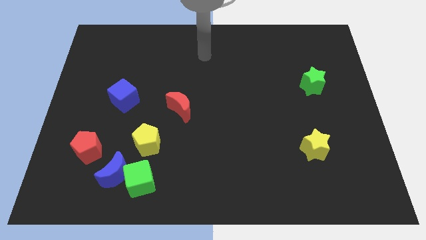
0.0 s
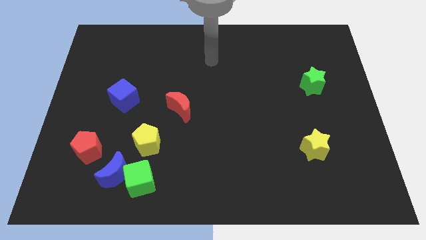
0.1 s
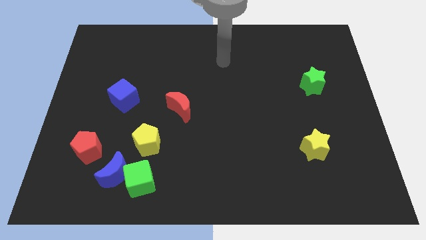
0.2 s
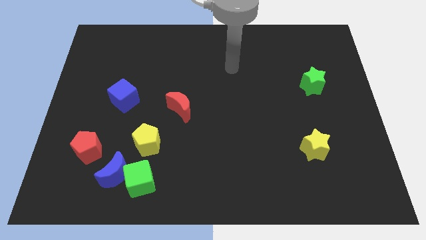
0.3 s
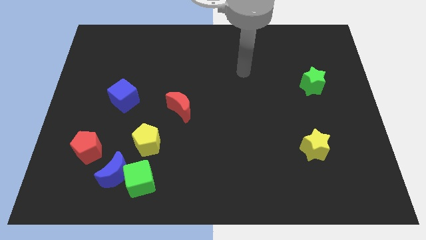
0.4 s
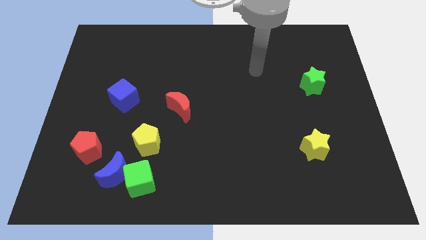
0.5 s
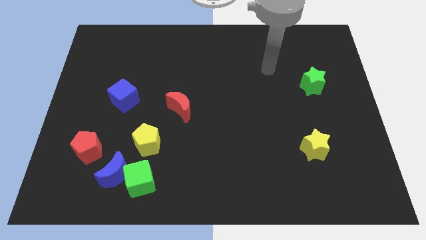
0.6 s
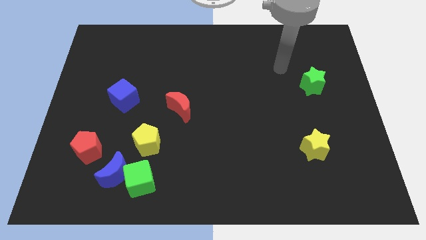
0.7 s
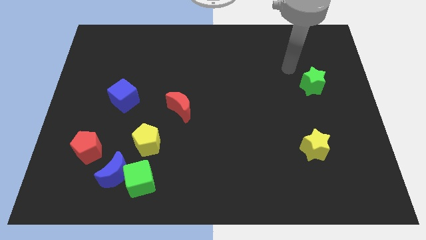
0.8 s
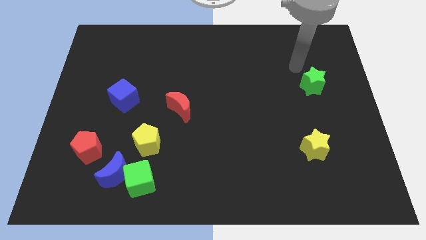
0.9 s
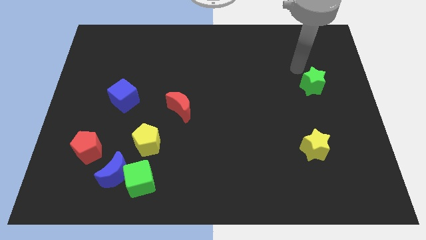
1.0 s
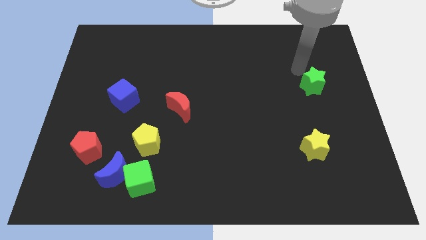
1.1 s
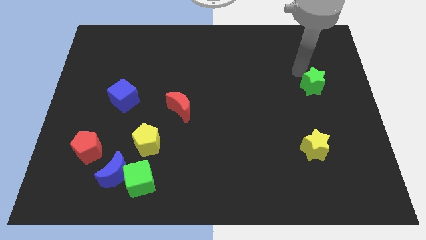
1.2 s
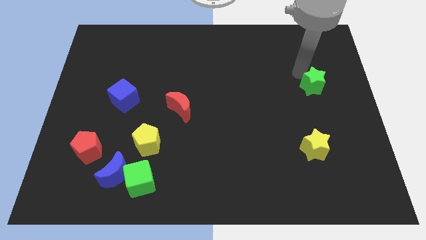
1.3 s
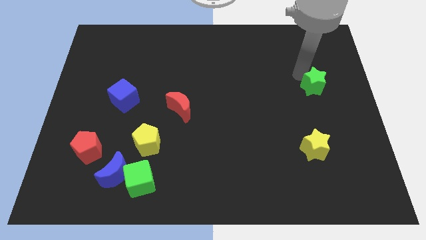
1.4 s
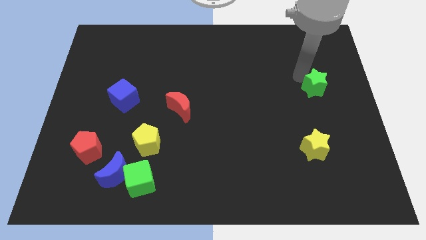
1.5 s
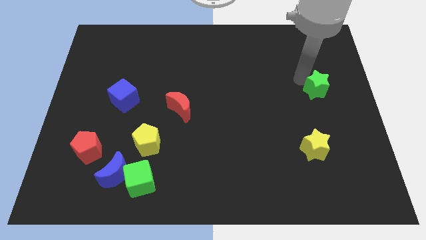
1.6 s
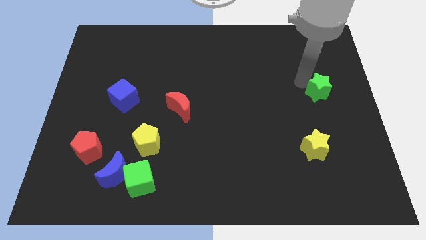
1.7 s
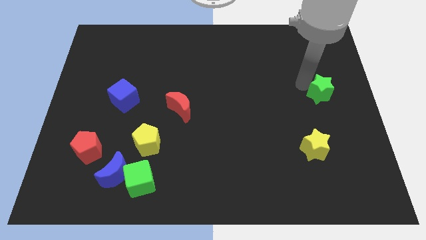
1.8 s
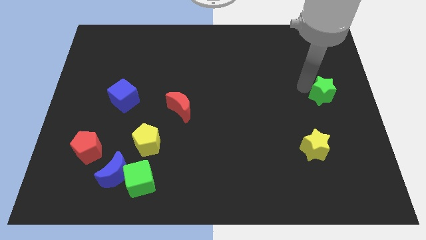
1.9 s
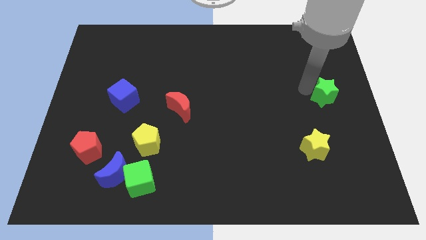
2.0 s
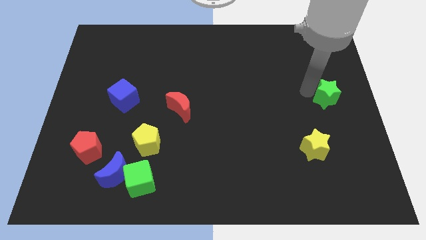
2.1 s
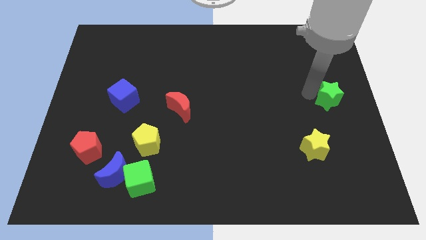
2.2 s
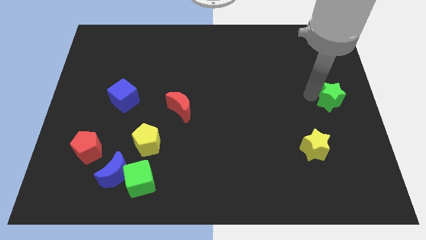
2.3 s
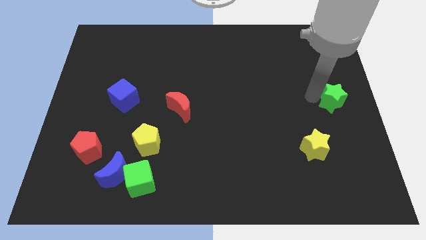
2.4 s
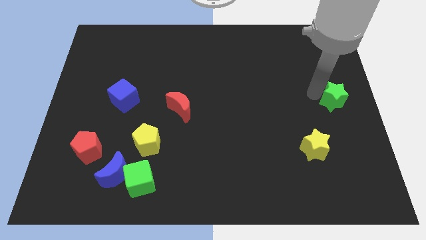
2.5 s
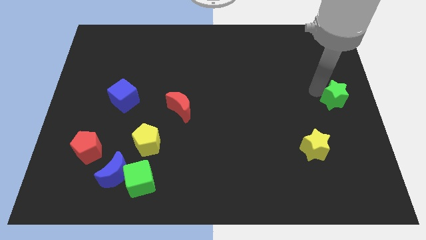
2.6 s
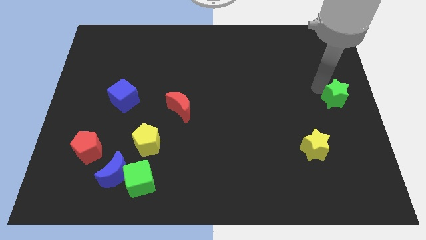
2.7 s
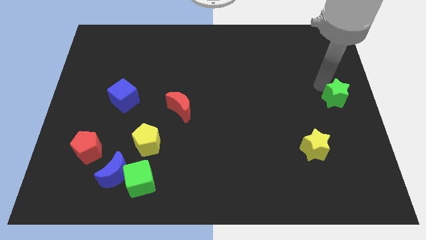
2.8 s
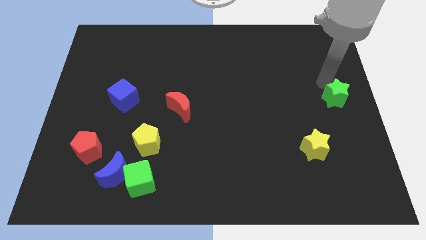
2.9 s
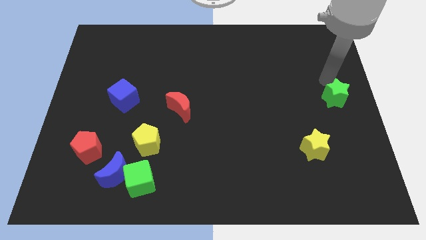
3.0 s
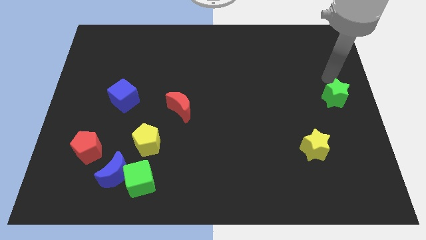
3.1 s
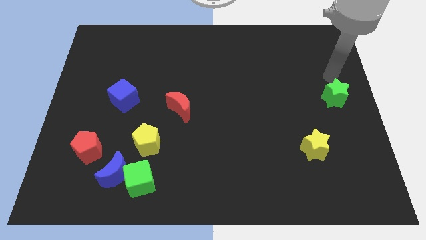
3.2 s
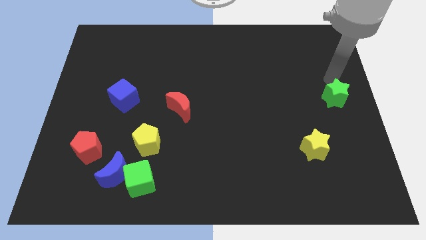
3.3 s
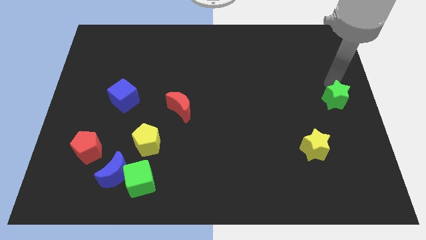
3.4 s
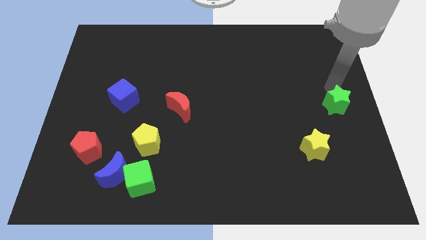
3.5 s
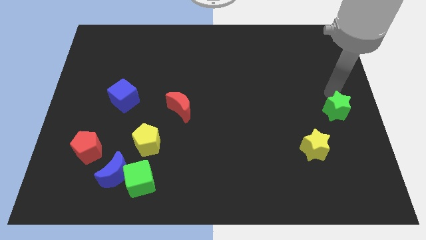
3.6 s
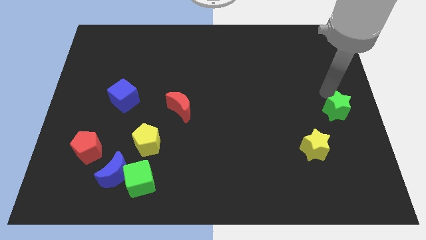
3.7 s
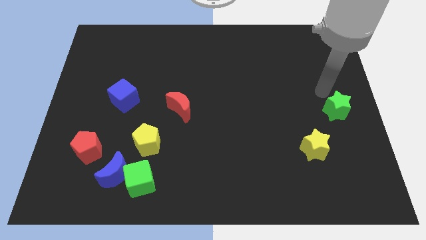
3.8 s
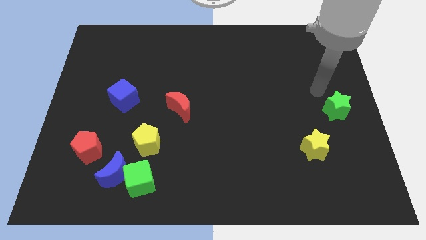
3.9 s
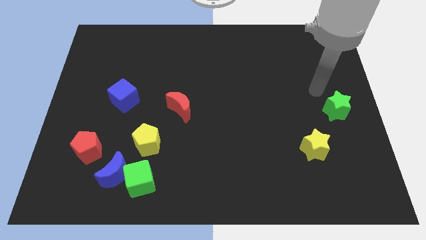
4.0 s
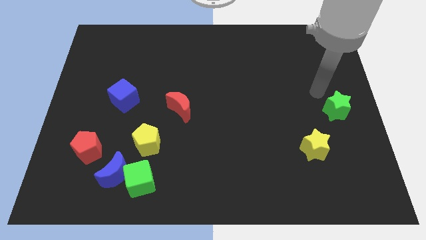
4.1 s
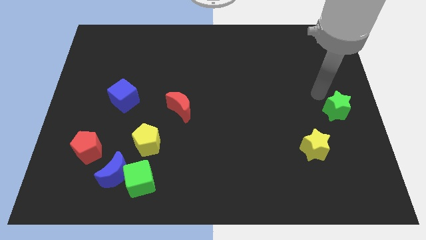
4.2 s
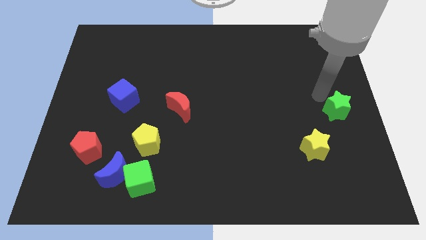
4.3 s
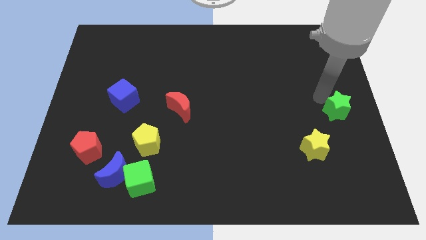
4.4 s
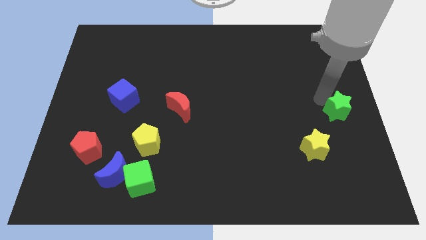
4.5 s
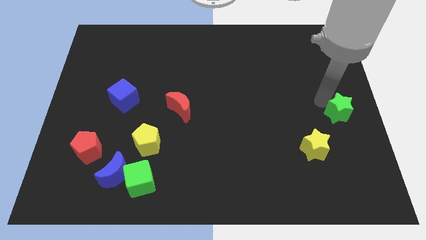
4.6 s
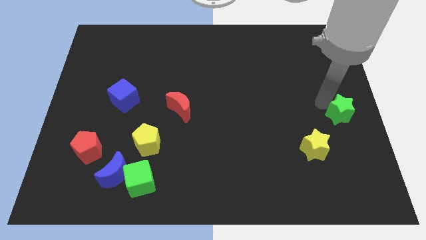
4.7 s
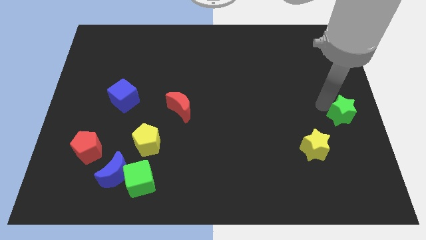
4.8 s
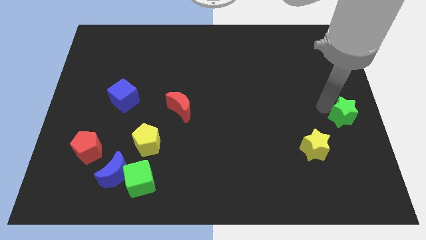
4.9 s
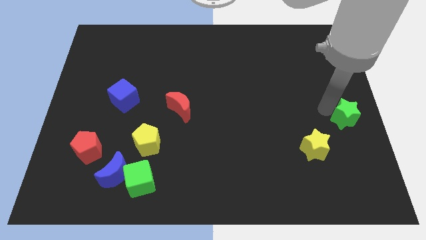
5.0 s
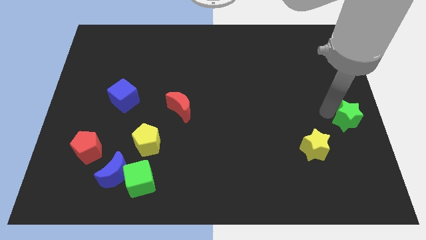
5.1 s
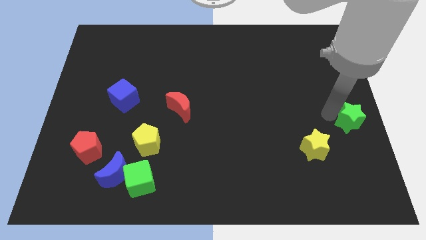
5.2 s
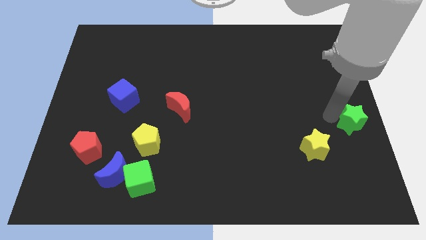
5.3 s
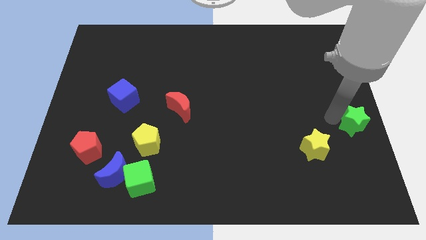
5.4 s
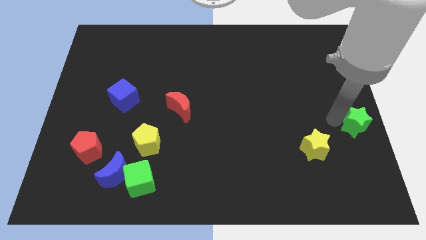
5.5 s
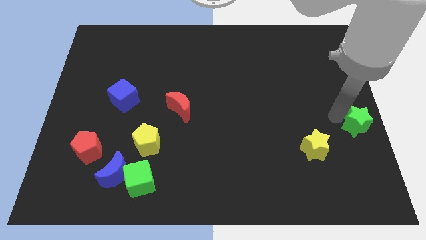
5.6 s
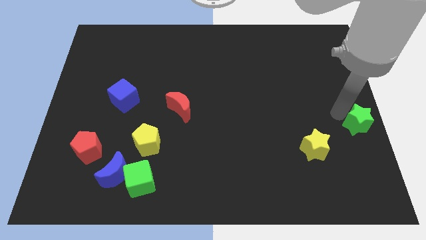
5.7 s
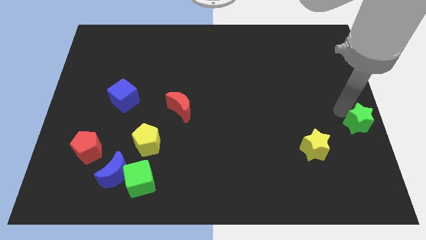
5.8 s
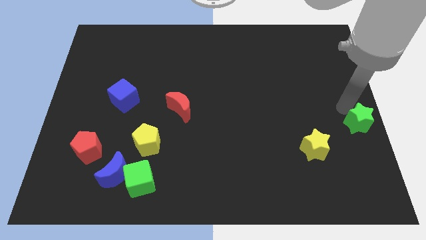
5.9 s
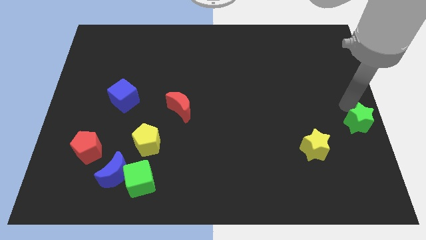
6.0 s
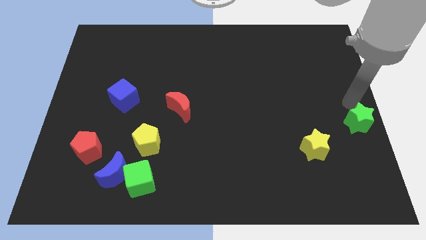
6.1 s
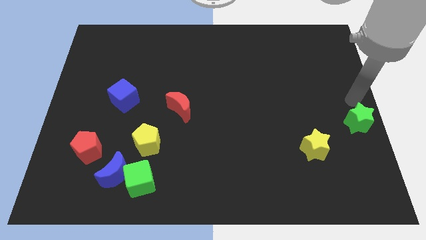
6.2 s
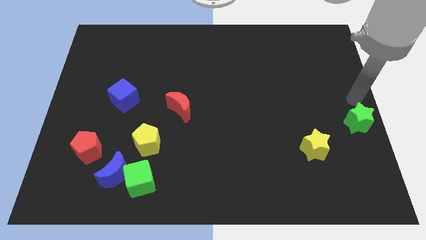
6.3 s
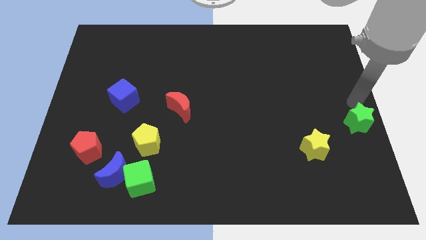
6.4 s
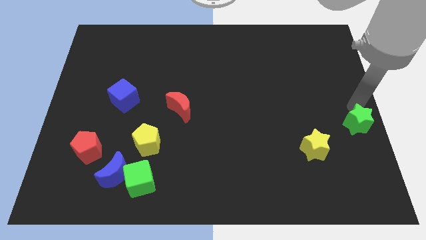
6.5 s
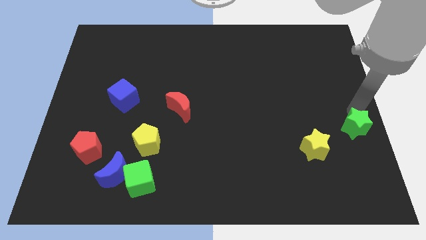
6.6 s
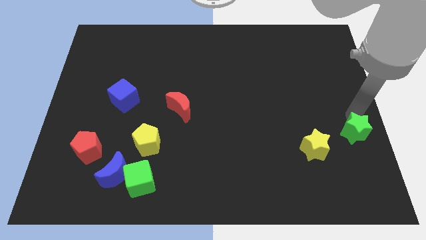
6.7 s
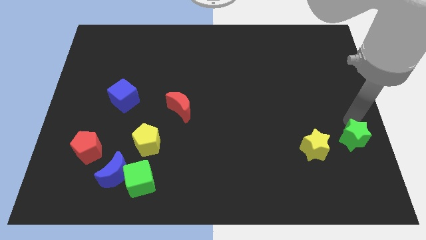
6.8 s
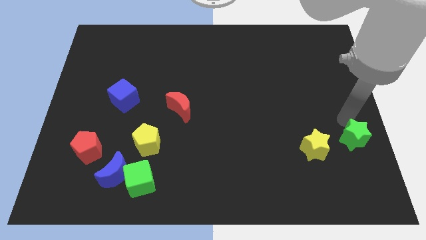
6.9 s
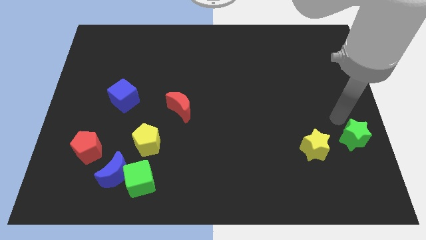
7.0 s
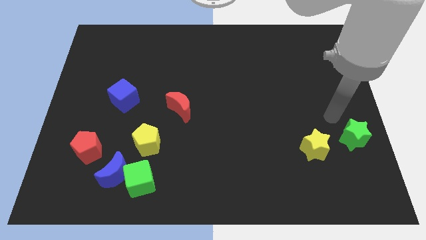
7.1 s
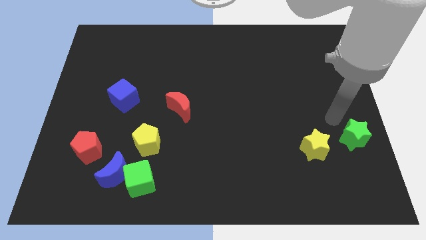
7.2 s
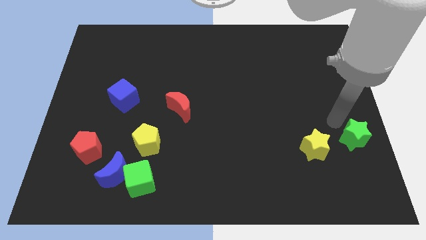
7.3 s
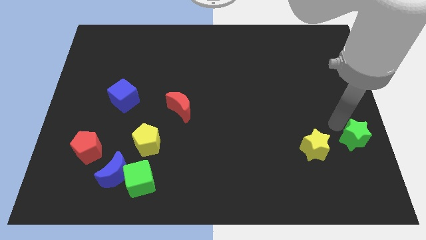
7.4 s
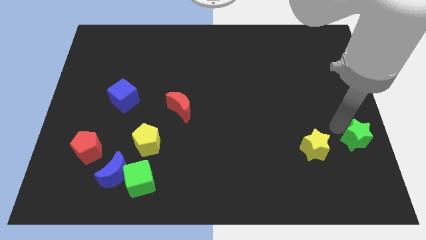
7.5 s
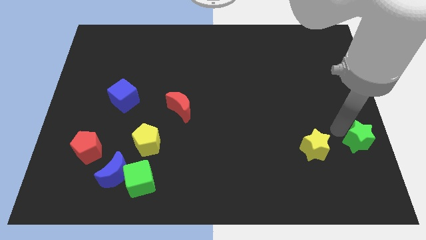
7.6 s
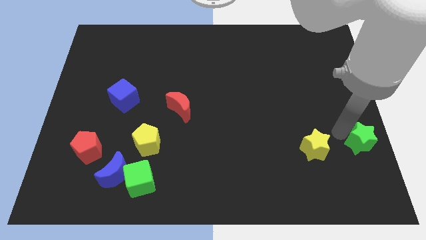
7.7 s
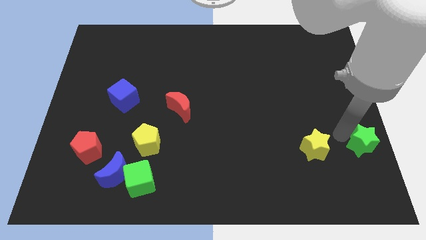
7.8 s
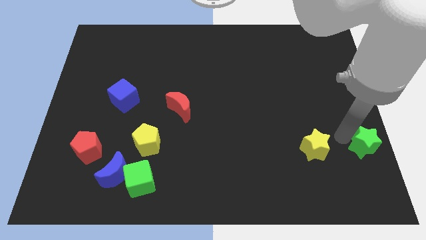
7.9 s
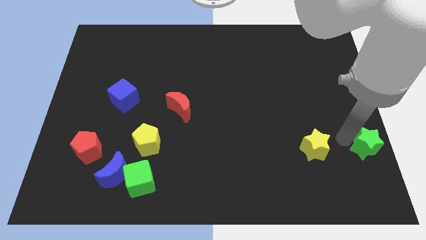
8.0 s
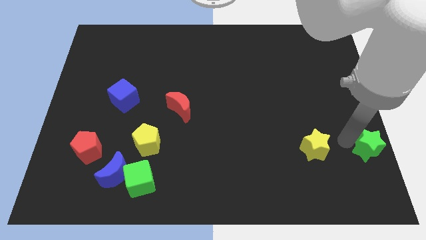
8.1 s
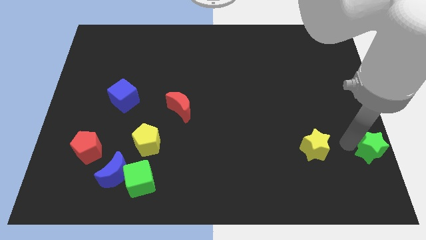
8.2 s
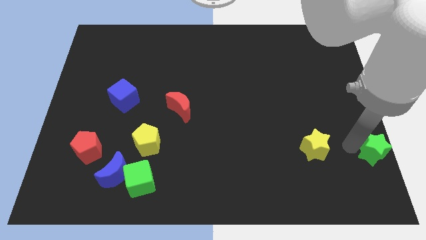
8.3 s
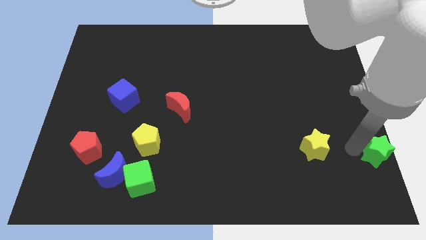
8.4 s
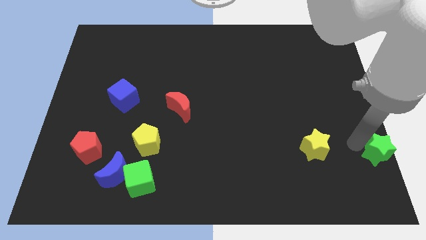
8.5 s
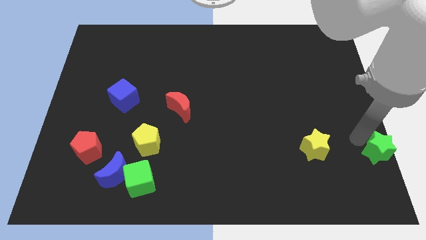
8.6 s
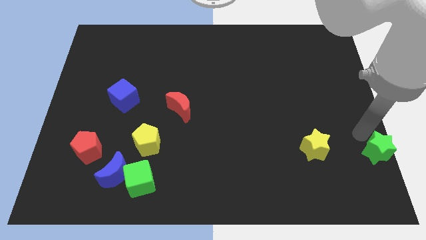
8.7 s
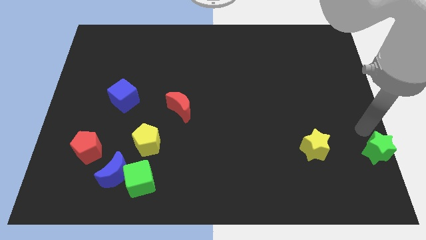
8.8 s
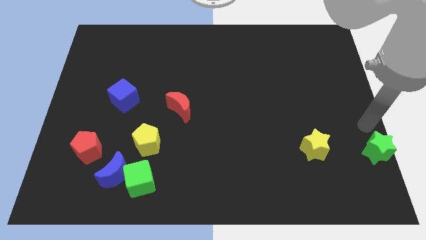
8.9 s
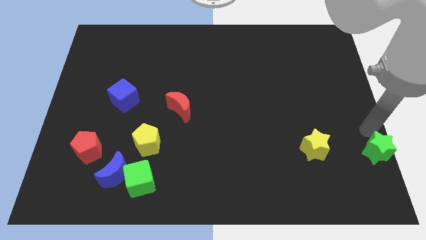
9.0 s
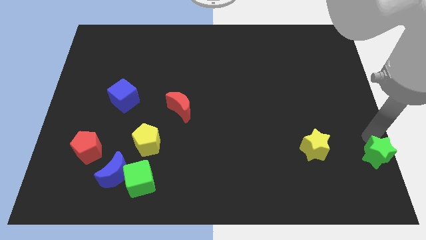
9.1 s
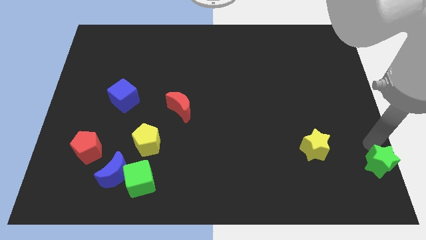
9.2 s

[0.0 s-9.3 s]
slide the green star to the bottom right of the board
